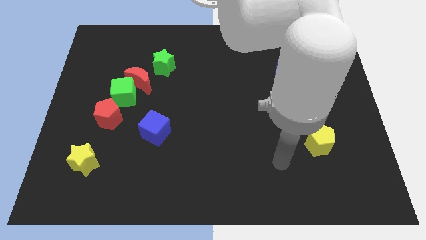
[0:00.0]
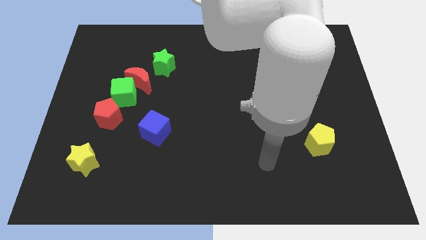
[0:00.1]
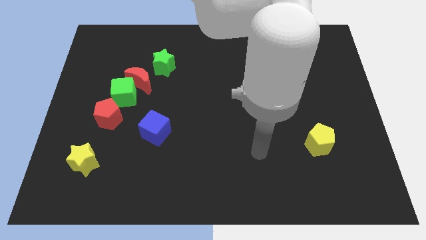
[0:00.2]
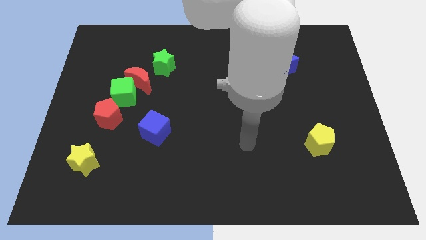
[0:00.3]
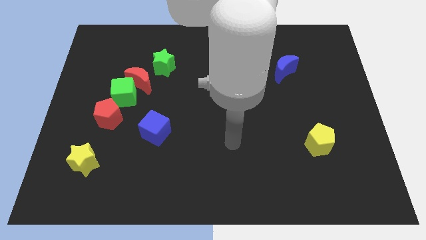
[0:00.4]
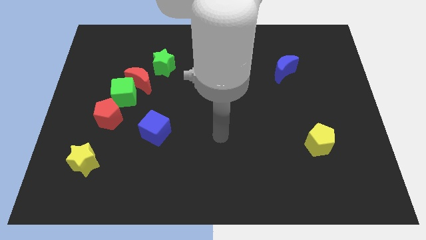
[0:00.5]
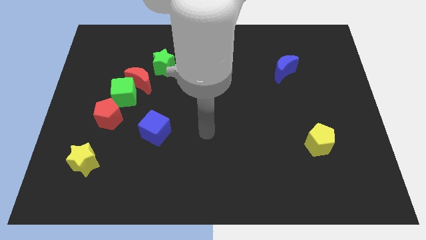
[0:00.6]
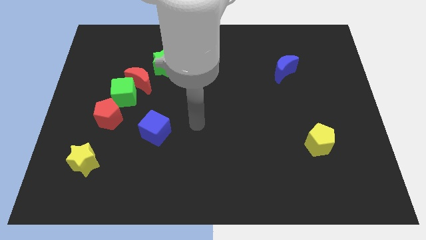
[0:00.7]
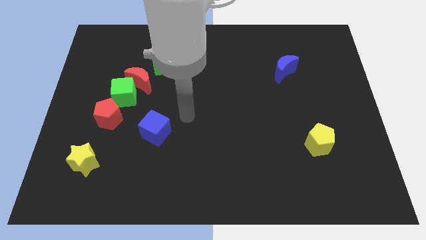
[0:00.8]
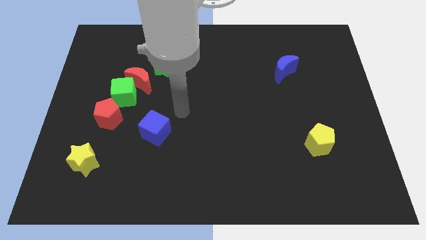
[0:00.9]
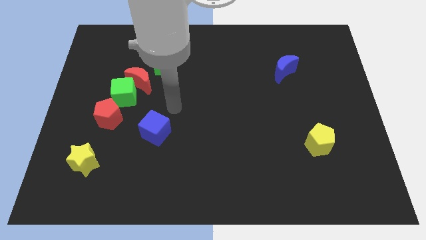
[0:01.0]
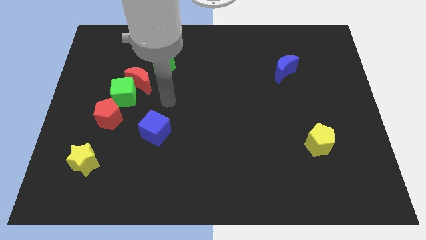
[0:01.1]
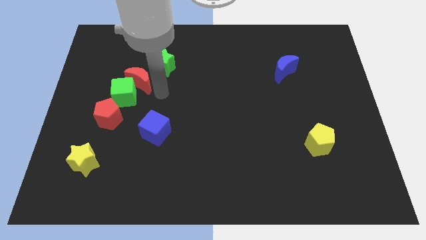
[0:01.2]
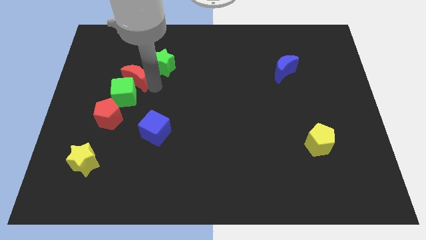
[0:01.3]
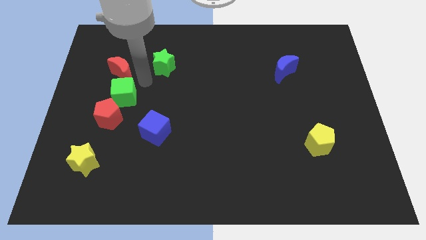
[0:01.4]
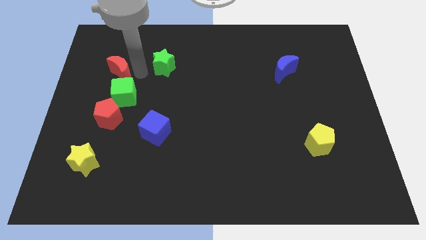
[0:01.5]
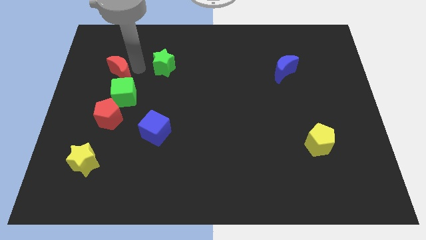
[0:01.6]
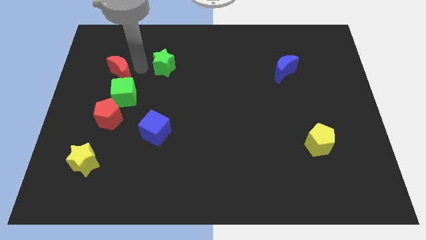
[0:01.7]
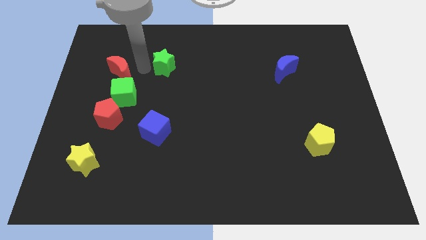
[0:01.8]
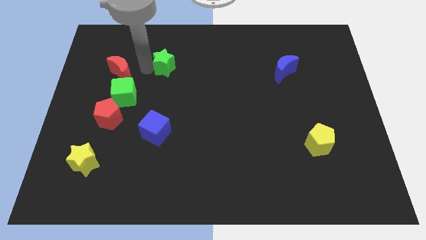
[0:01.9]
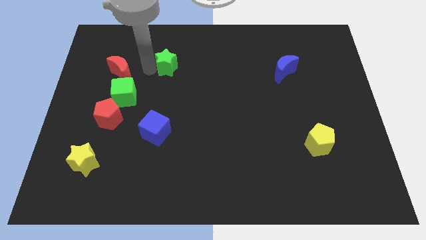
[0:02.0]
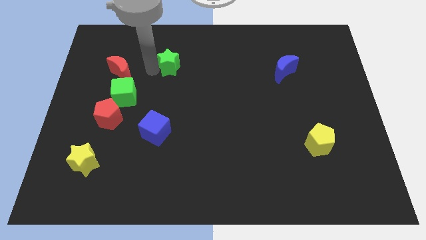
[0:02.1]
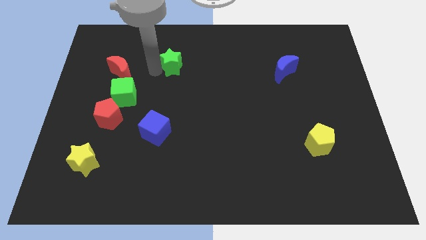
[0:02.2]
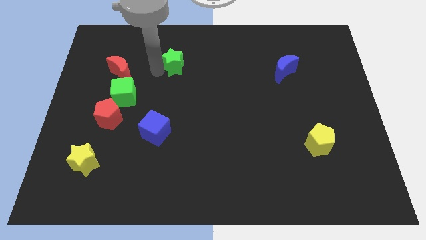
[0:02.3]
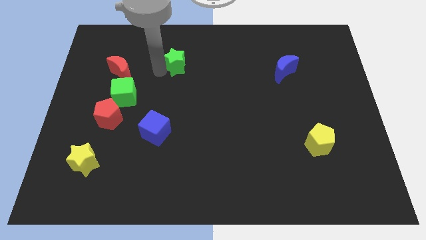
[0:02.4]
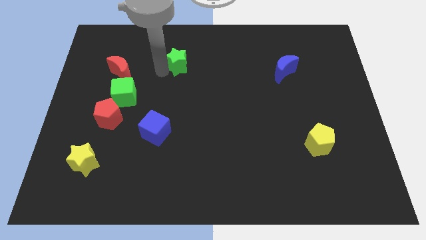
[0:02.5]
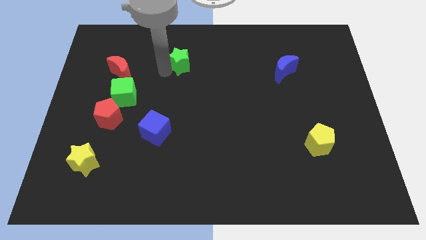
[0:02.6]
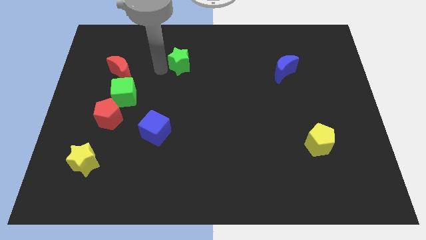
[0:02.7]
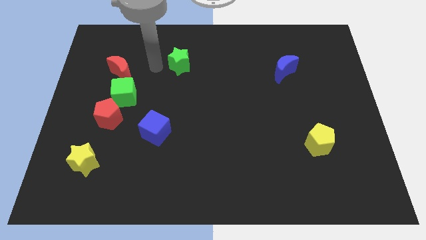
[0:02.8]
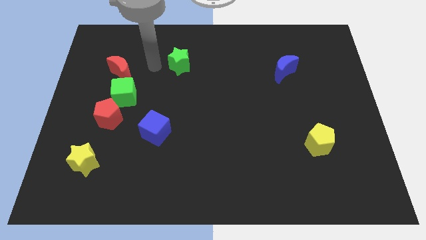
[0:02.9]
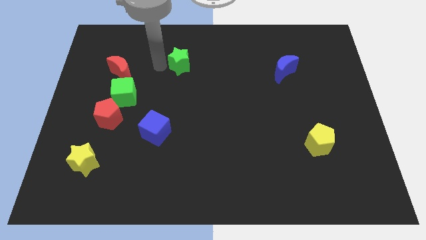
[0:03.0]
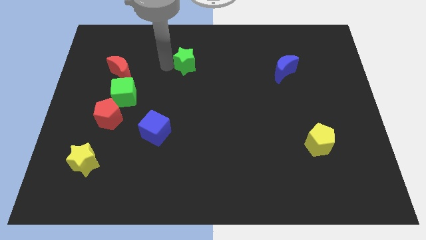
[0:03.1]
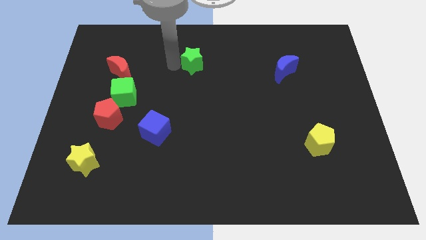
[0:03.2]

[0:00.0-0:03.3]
slightly slide the green star to the right

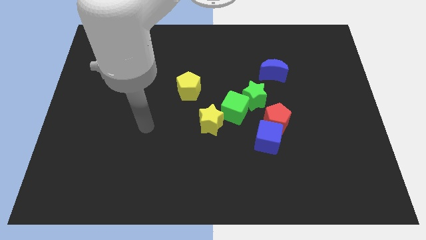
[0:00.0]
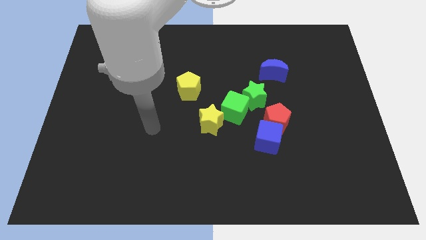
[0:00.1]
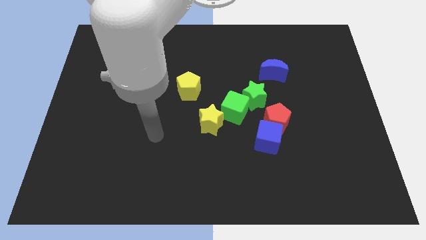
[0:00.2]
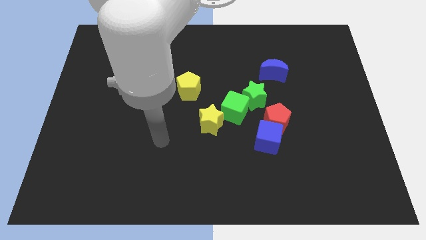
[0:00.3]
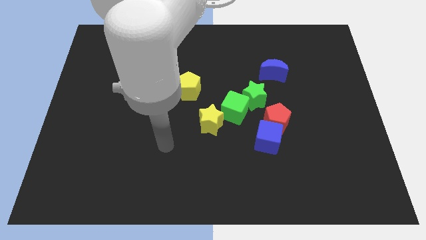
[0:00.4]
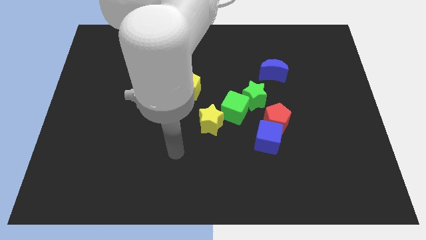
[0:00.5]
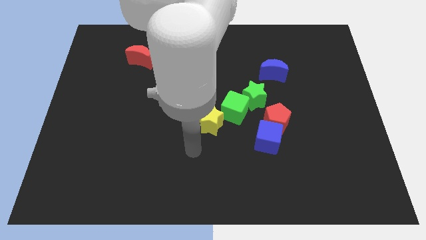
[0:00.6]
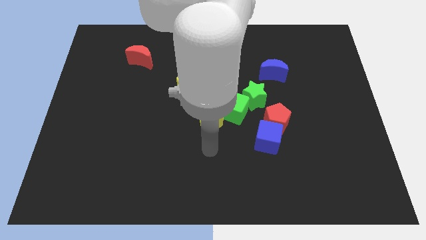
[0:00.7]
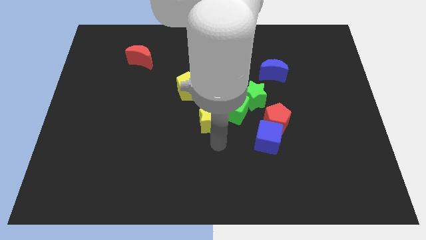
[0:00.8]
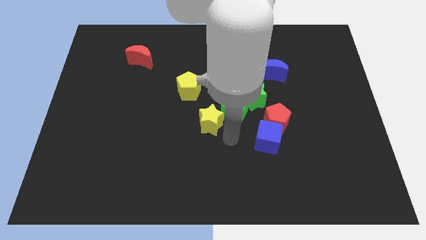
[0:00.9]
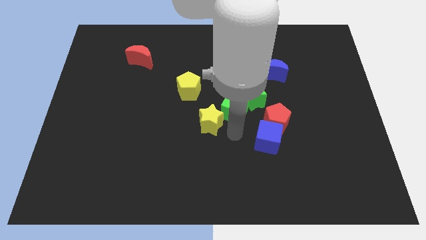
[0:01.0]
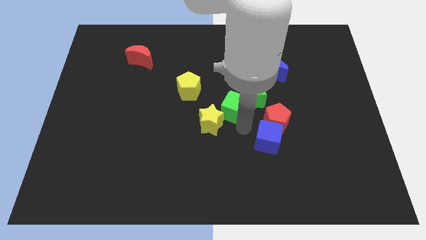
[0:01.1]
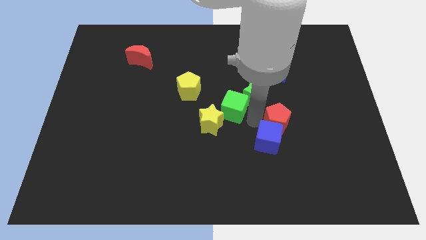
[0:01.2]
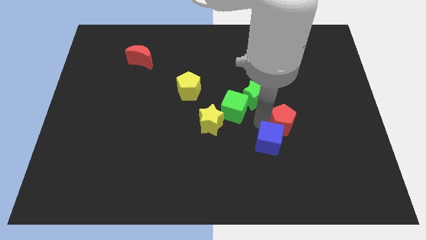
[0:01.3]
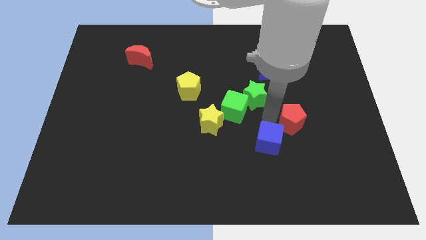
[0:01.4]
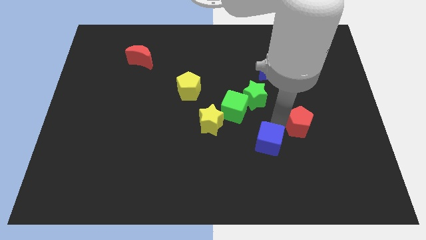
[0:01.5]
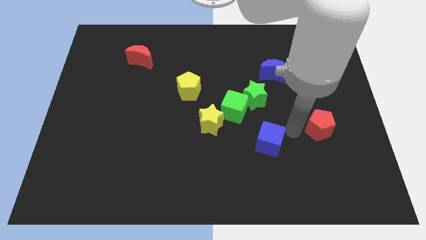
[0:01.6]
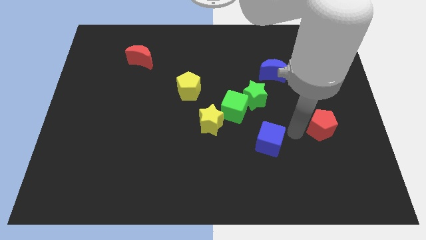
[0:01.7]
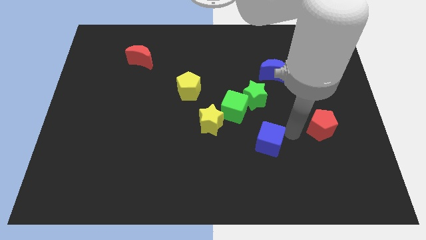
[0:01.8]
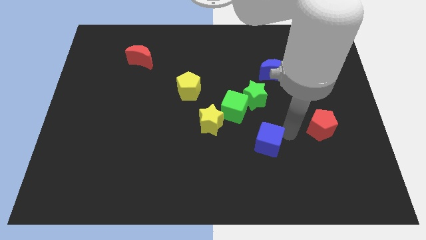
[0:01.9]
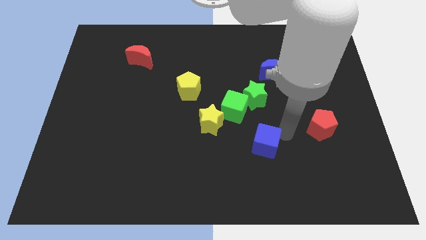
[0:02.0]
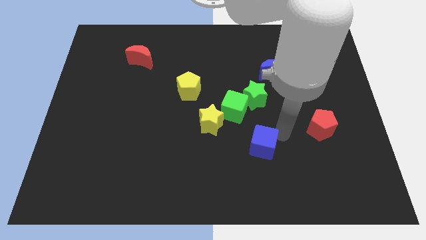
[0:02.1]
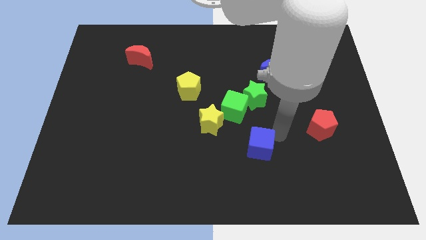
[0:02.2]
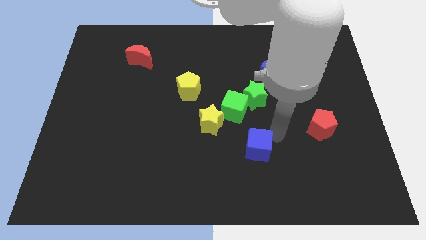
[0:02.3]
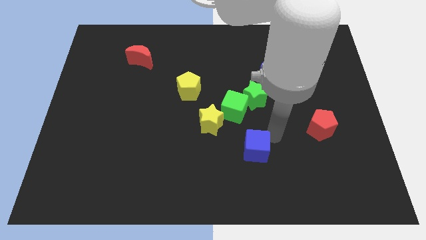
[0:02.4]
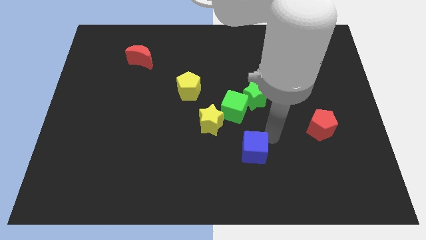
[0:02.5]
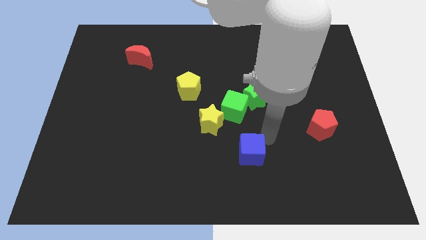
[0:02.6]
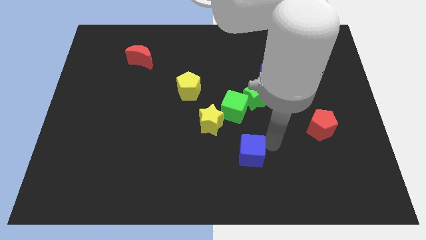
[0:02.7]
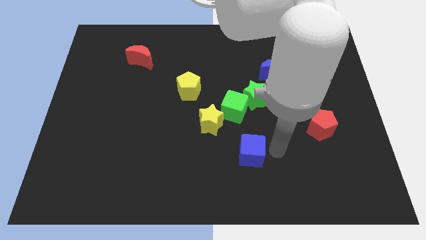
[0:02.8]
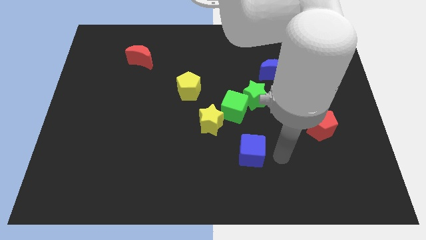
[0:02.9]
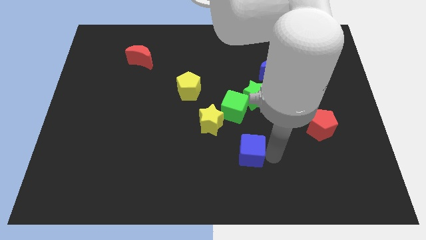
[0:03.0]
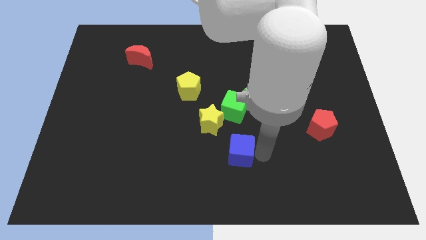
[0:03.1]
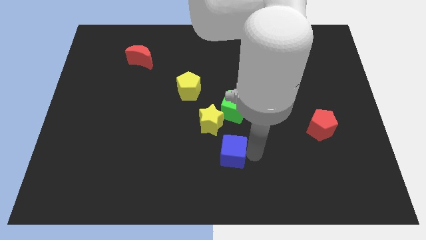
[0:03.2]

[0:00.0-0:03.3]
push the blue cube to the left somewhat

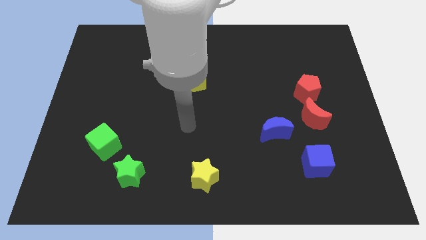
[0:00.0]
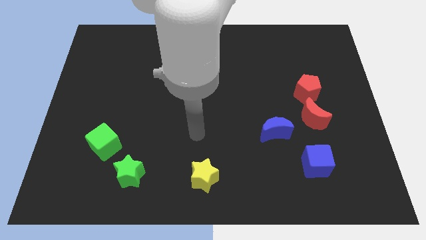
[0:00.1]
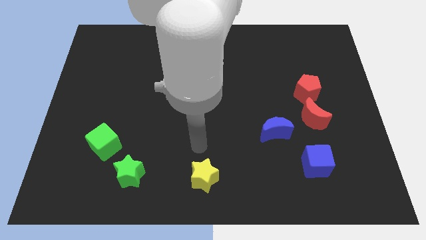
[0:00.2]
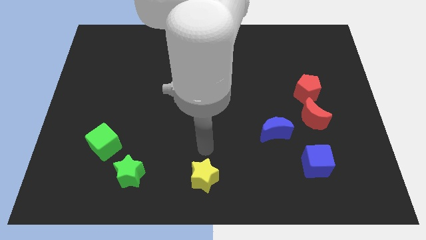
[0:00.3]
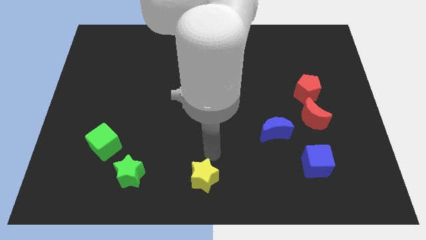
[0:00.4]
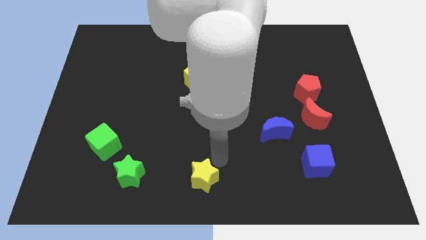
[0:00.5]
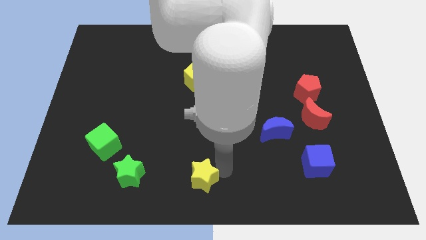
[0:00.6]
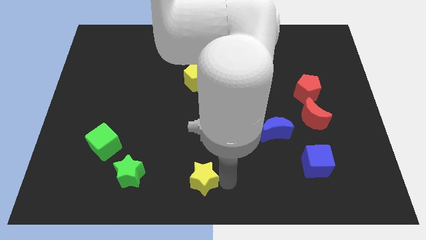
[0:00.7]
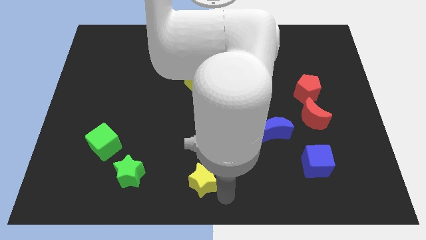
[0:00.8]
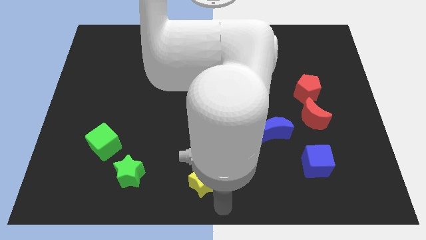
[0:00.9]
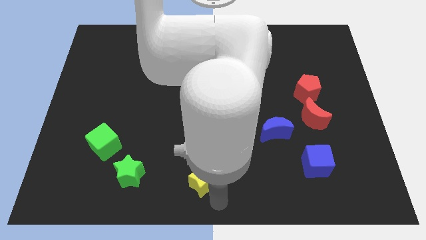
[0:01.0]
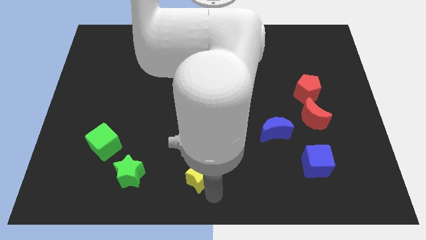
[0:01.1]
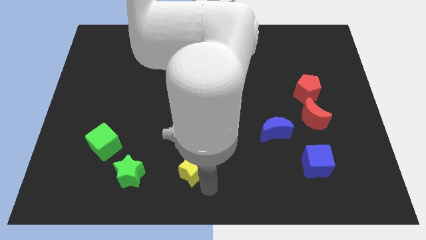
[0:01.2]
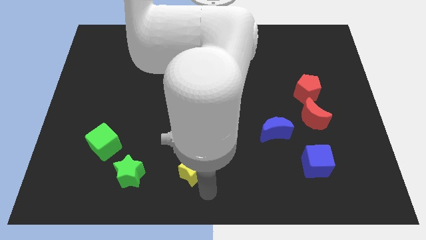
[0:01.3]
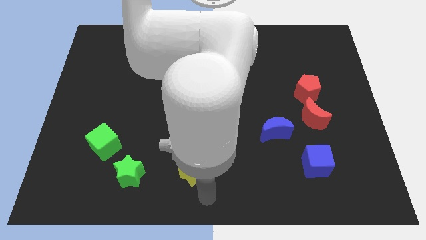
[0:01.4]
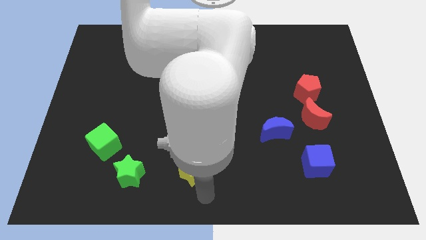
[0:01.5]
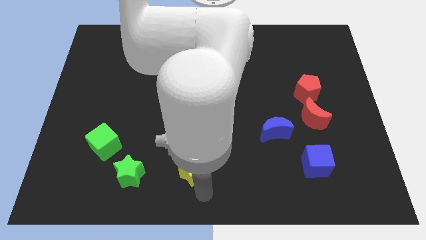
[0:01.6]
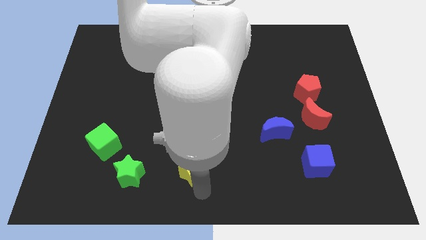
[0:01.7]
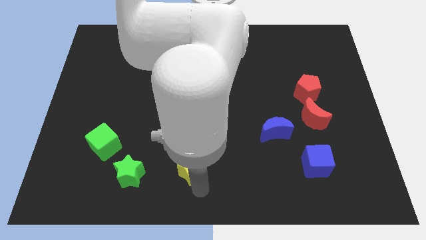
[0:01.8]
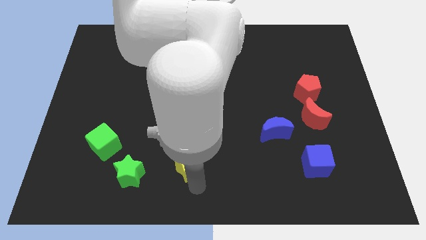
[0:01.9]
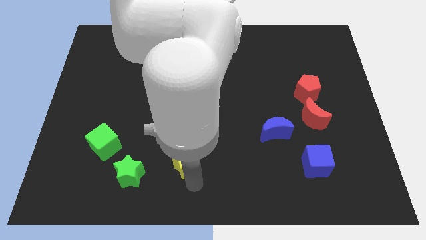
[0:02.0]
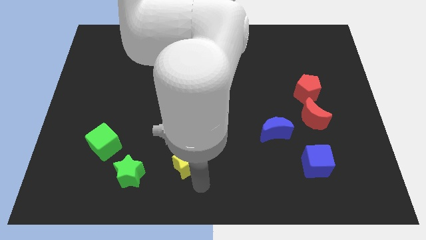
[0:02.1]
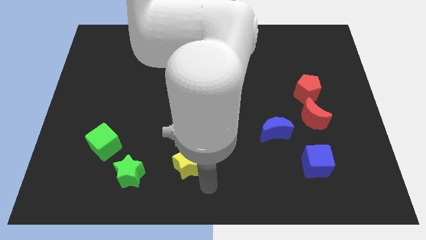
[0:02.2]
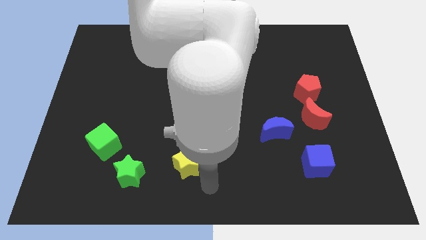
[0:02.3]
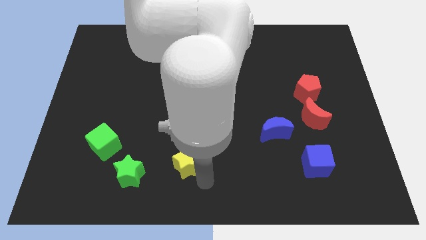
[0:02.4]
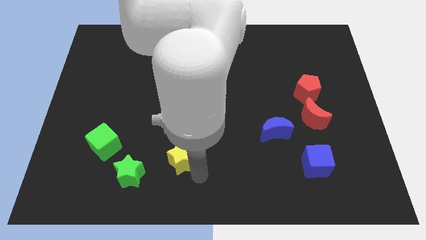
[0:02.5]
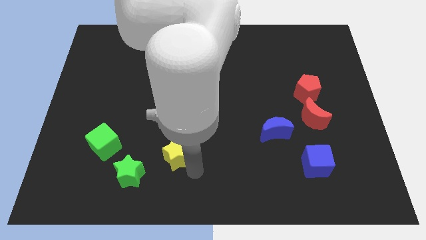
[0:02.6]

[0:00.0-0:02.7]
slightly move the yellow star upwards and to the left diagonally
